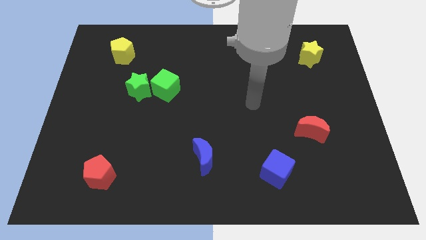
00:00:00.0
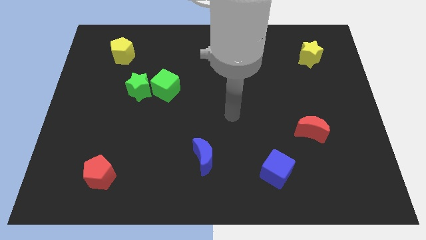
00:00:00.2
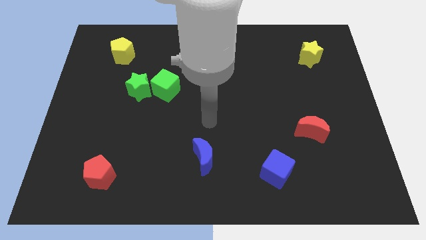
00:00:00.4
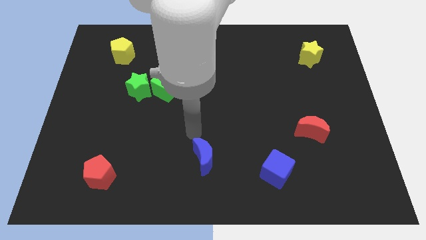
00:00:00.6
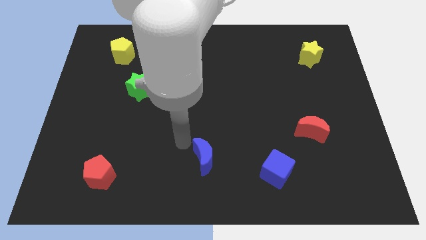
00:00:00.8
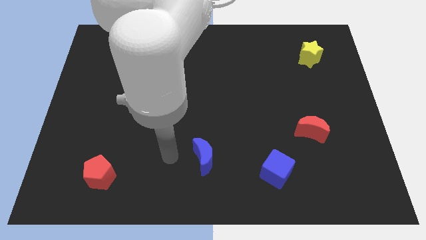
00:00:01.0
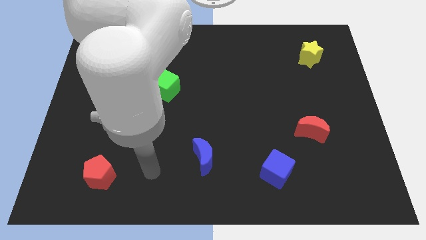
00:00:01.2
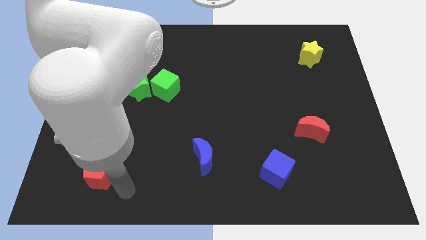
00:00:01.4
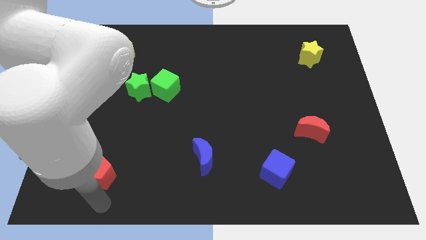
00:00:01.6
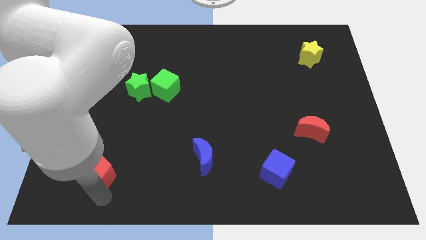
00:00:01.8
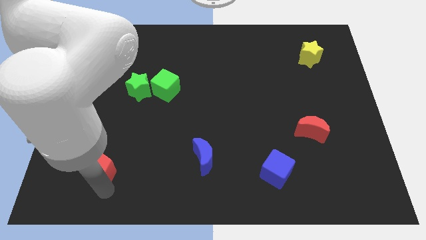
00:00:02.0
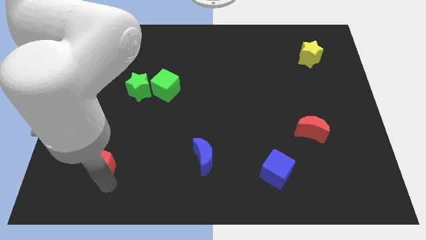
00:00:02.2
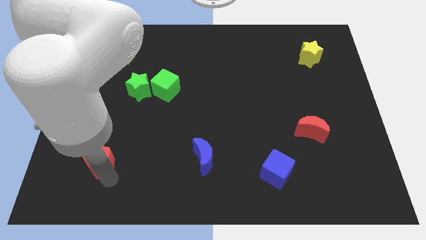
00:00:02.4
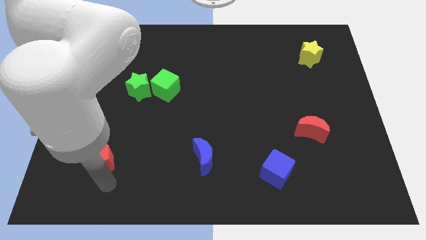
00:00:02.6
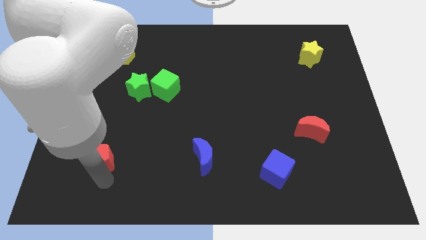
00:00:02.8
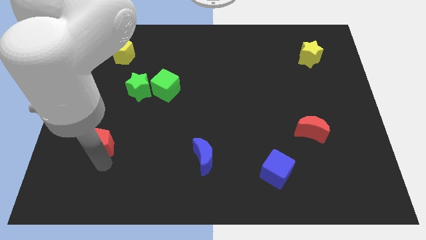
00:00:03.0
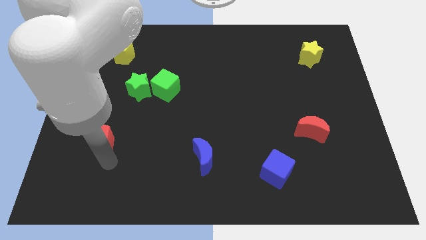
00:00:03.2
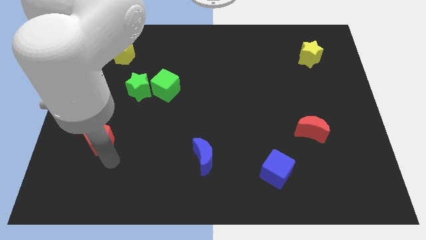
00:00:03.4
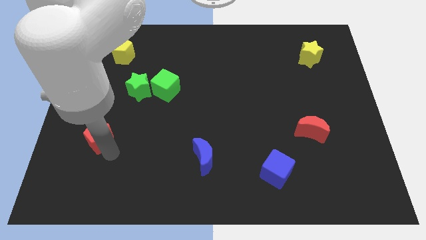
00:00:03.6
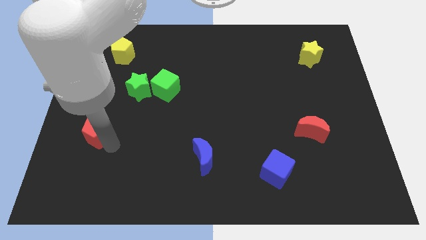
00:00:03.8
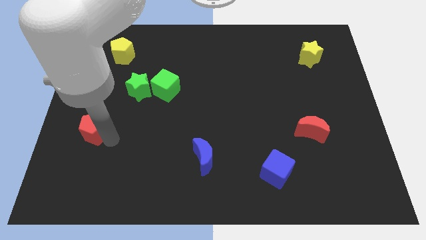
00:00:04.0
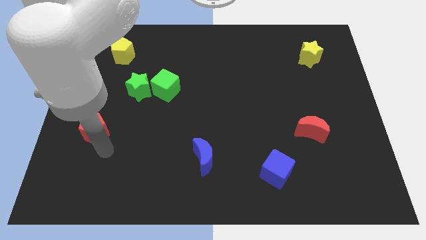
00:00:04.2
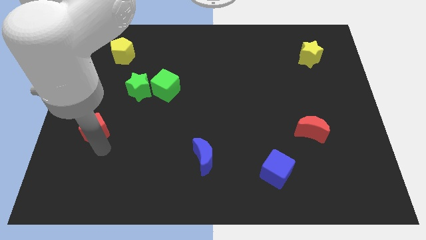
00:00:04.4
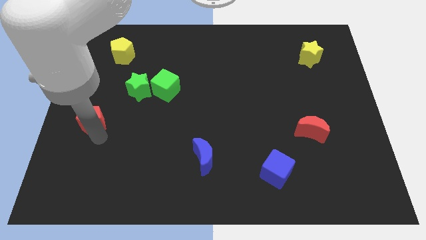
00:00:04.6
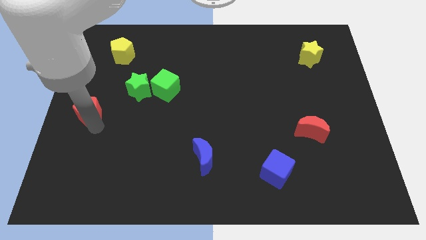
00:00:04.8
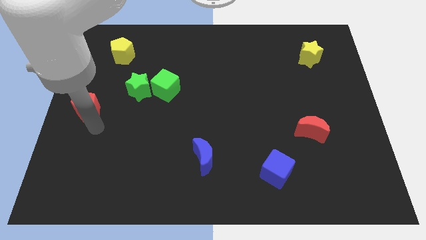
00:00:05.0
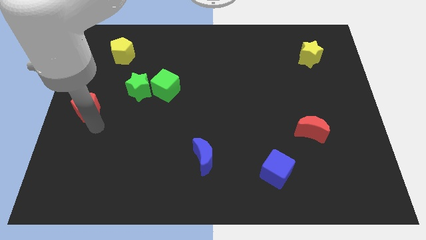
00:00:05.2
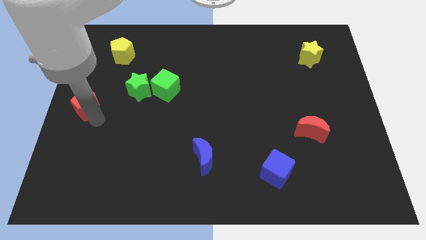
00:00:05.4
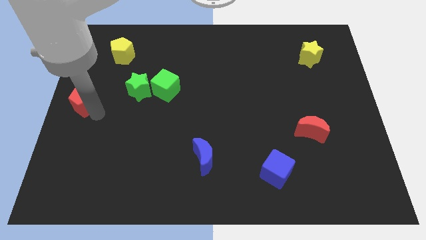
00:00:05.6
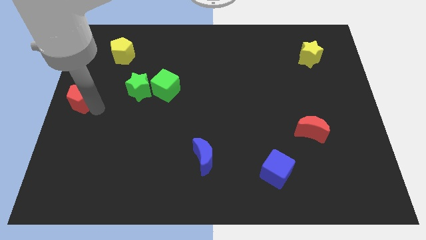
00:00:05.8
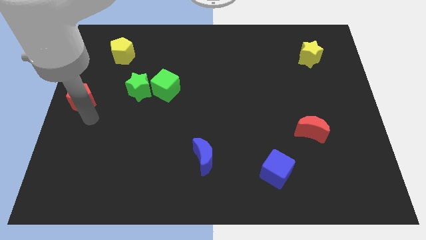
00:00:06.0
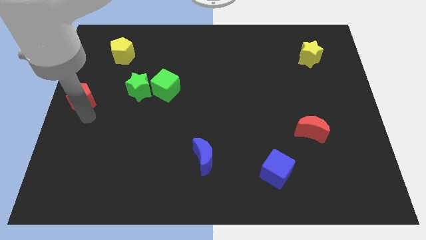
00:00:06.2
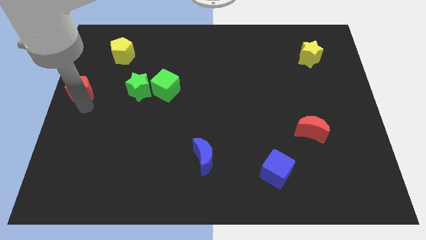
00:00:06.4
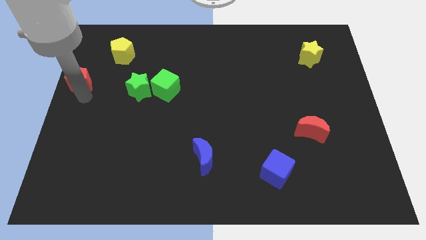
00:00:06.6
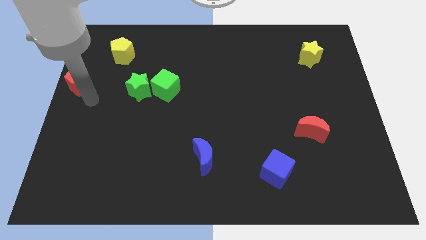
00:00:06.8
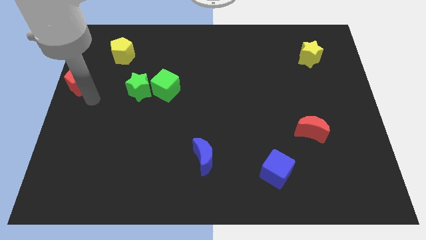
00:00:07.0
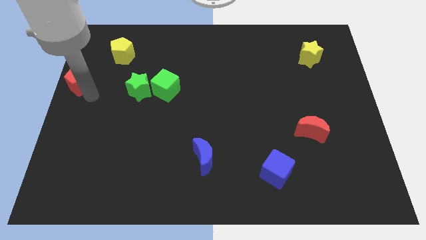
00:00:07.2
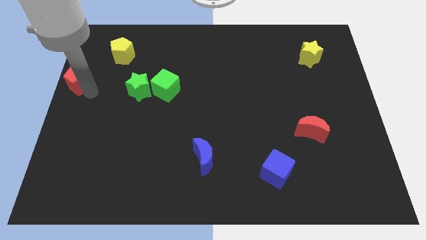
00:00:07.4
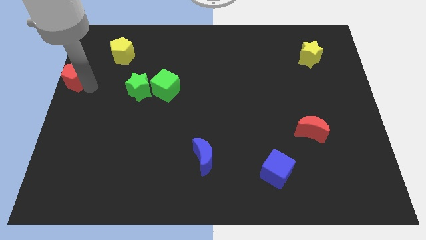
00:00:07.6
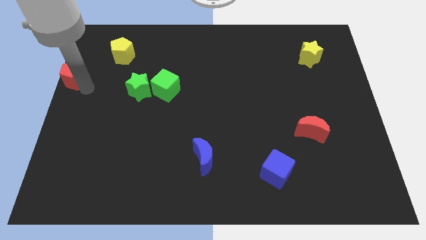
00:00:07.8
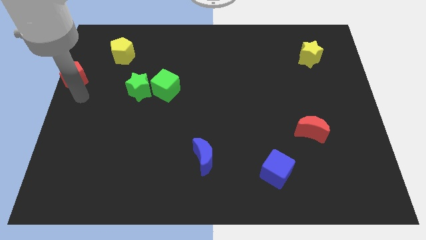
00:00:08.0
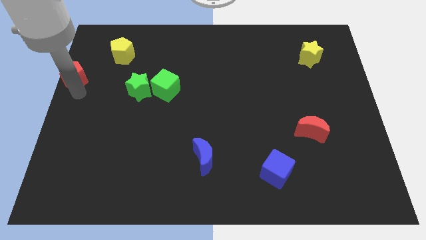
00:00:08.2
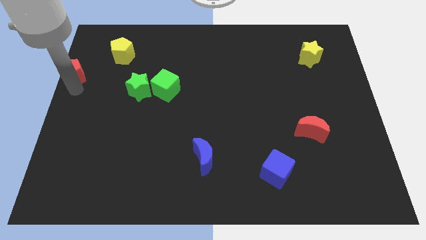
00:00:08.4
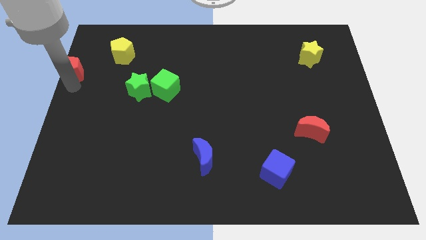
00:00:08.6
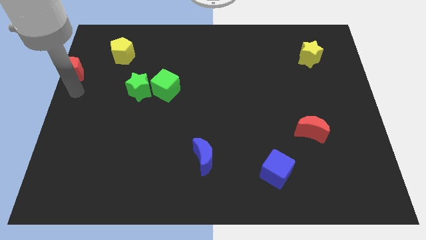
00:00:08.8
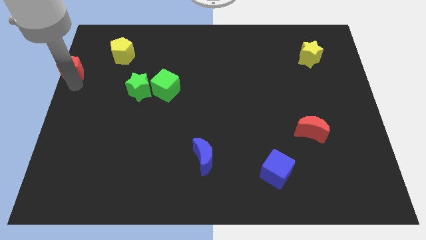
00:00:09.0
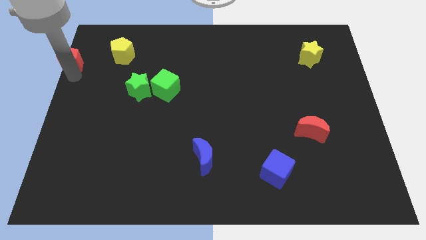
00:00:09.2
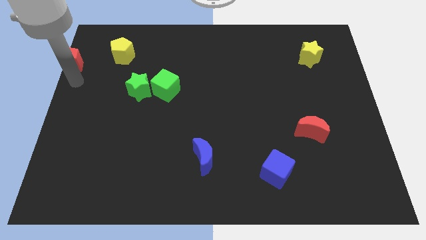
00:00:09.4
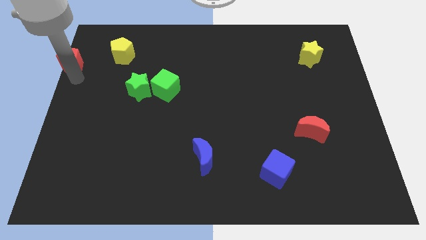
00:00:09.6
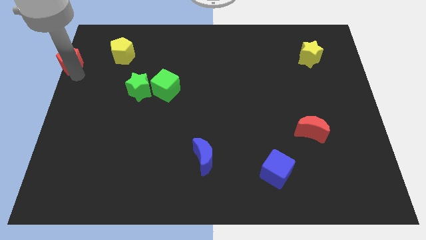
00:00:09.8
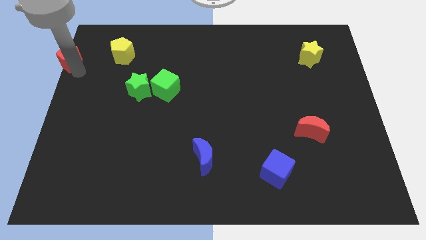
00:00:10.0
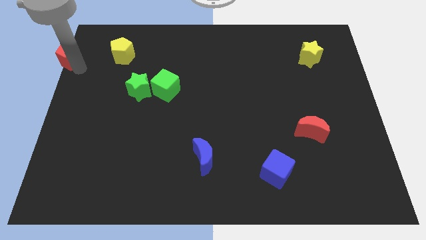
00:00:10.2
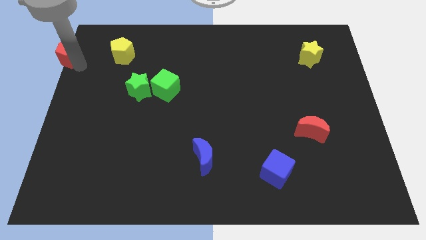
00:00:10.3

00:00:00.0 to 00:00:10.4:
move the red pentagon to the top left of the board
